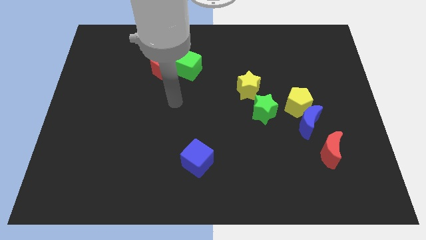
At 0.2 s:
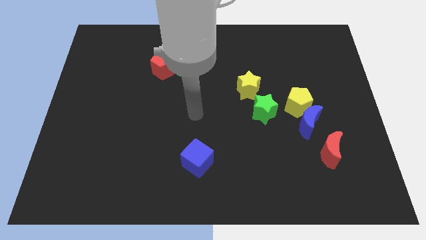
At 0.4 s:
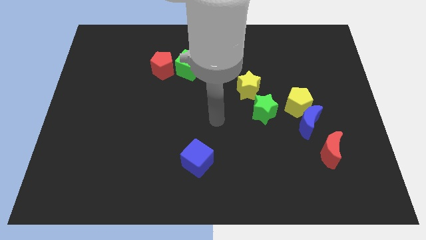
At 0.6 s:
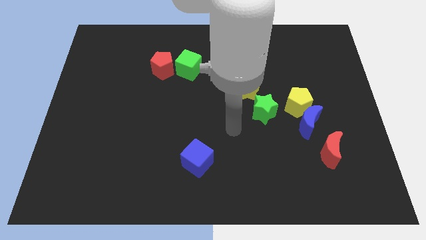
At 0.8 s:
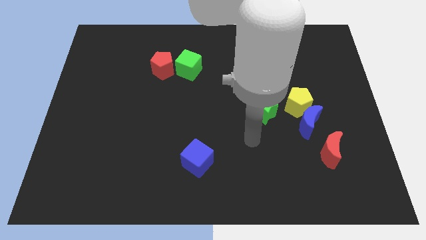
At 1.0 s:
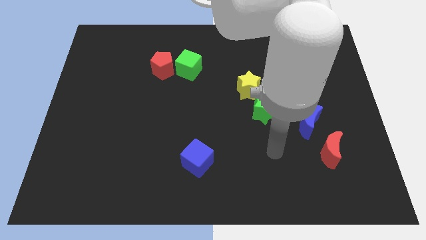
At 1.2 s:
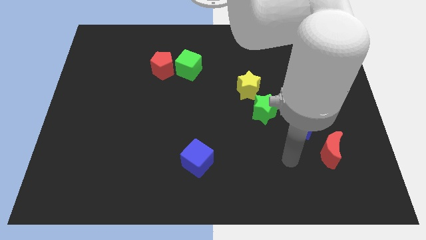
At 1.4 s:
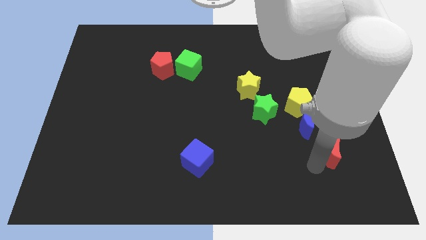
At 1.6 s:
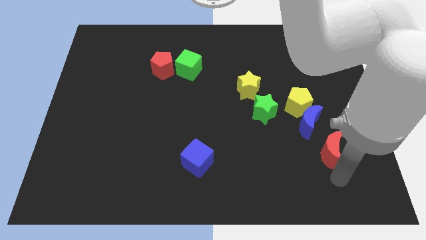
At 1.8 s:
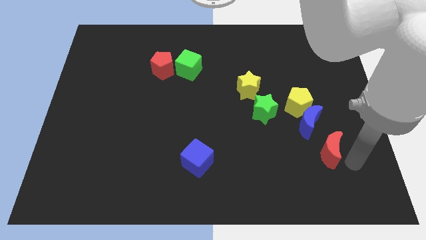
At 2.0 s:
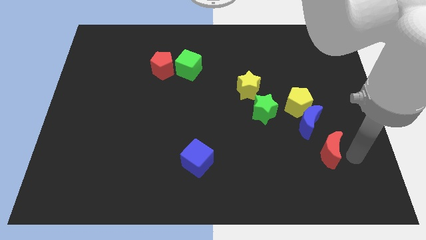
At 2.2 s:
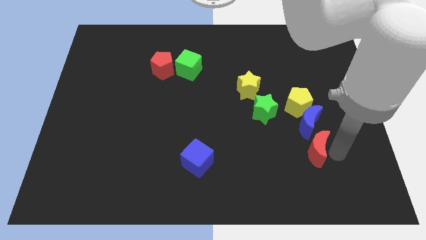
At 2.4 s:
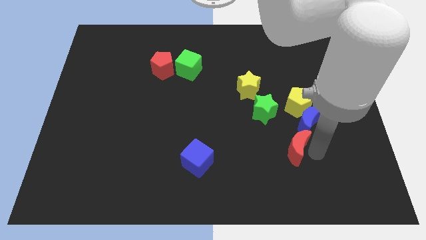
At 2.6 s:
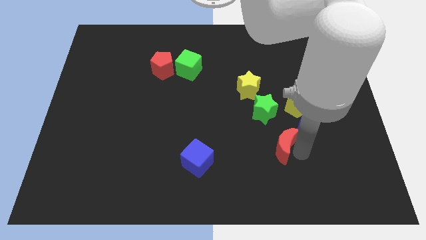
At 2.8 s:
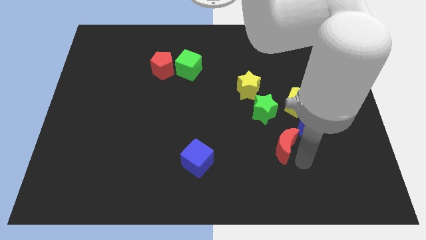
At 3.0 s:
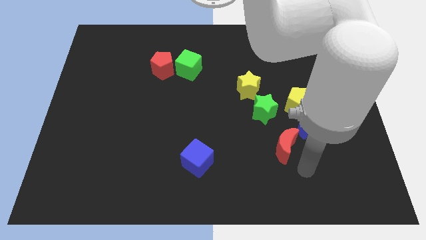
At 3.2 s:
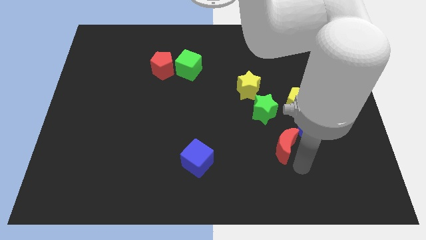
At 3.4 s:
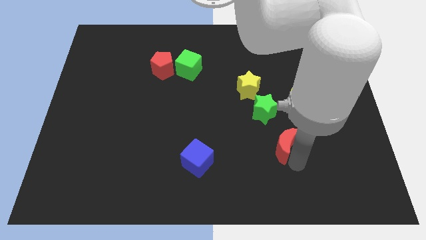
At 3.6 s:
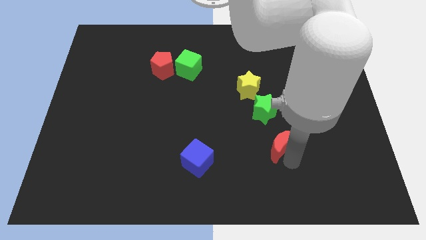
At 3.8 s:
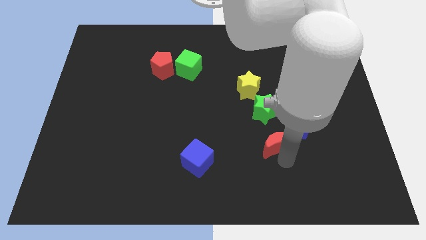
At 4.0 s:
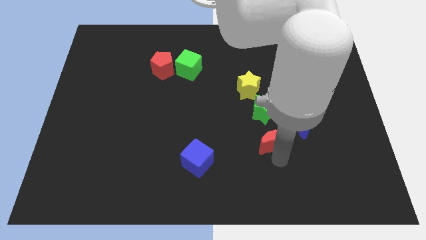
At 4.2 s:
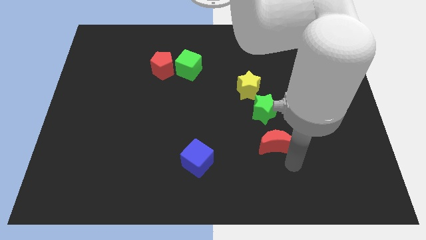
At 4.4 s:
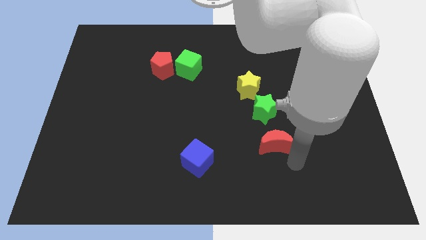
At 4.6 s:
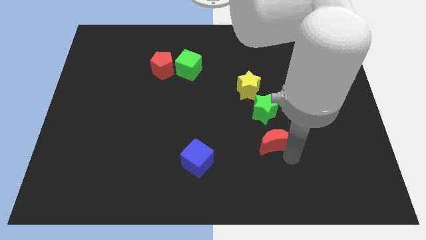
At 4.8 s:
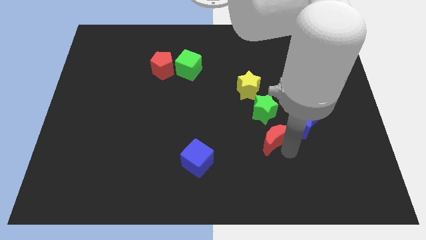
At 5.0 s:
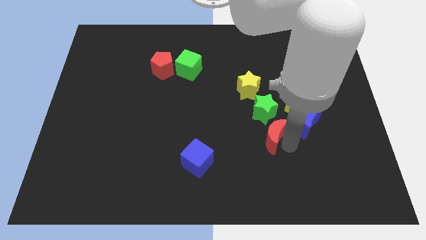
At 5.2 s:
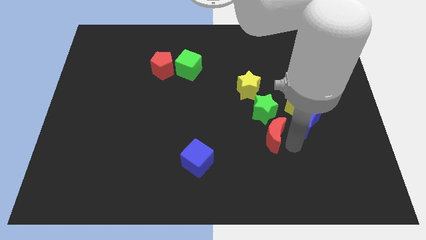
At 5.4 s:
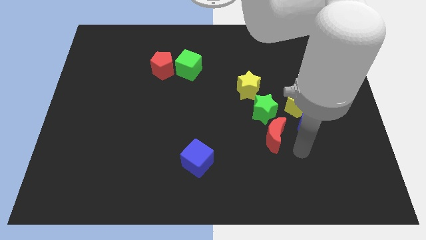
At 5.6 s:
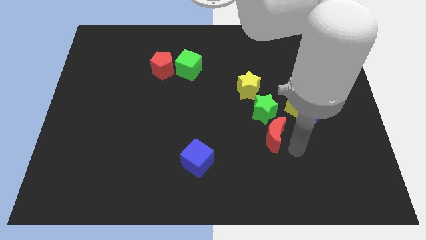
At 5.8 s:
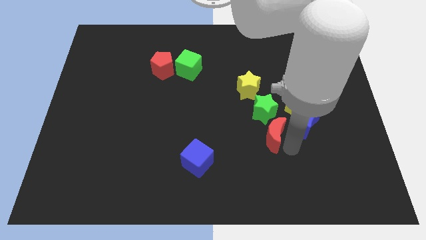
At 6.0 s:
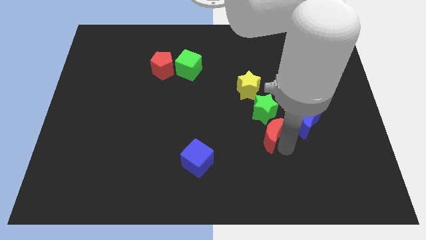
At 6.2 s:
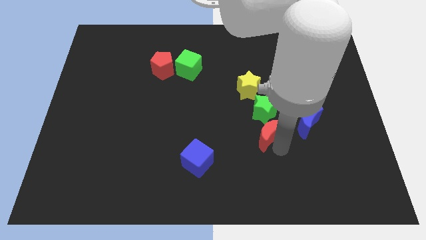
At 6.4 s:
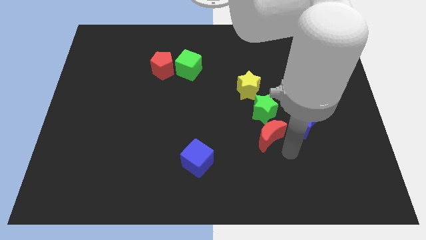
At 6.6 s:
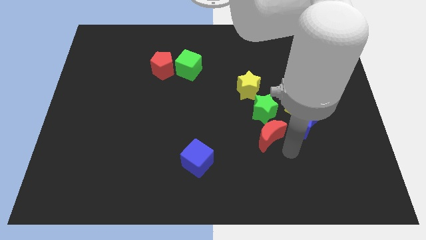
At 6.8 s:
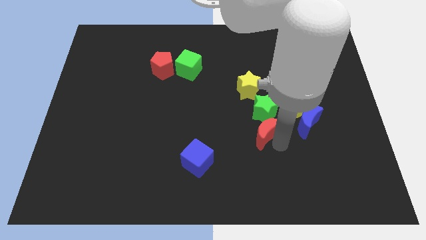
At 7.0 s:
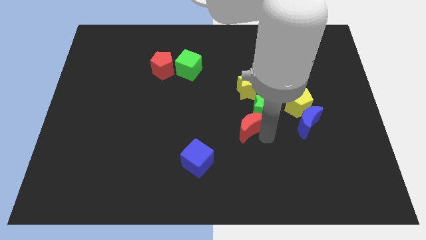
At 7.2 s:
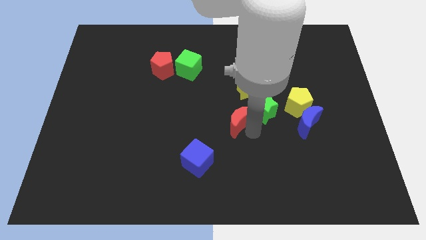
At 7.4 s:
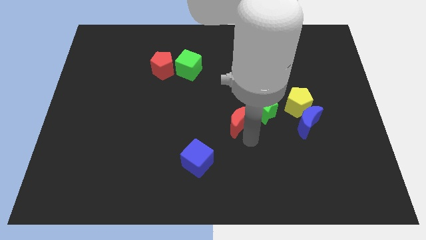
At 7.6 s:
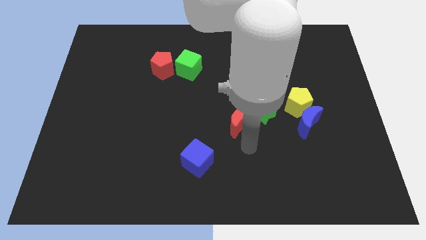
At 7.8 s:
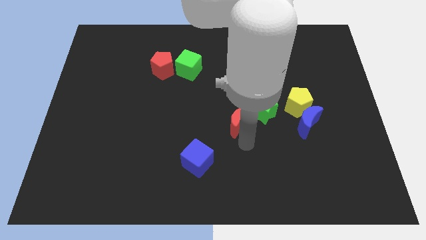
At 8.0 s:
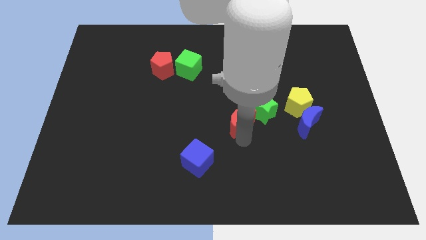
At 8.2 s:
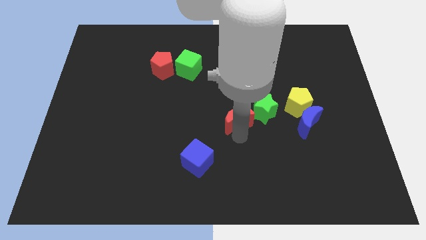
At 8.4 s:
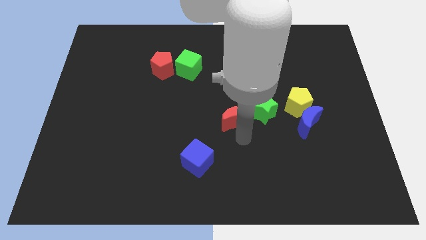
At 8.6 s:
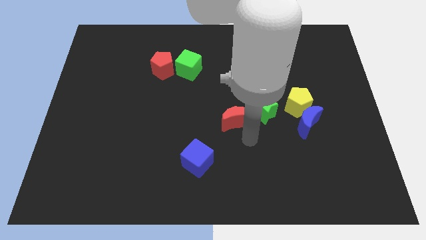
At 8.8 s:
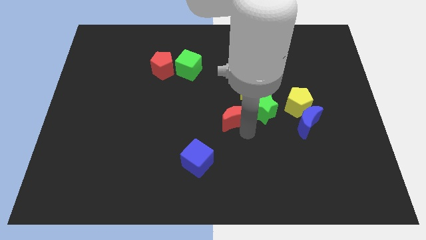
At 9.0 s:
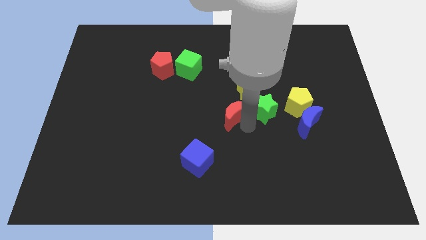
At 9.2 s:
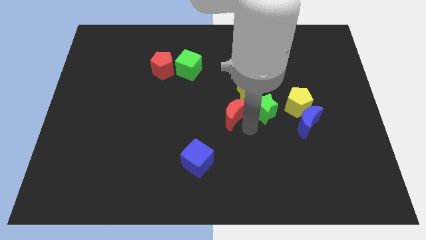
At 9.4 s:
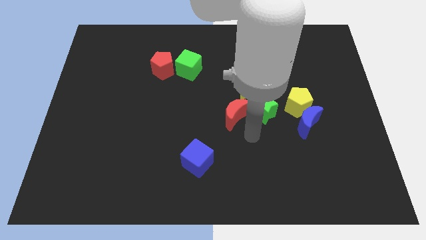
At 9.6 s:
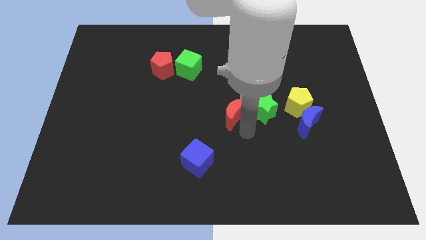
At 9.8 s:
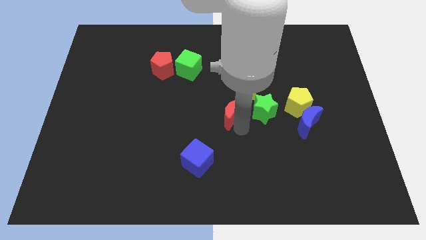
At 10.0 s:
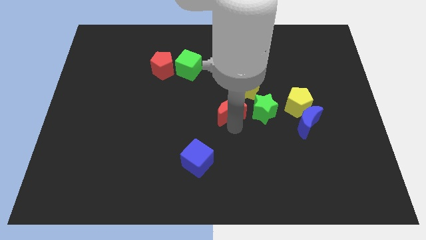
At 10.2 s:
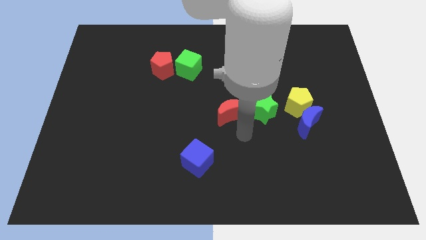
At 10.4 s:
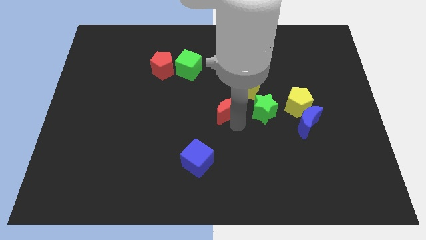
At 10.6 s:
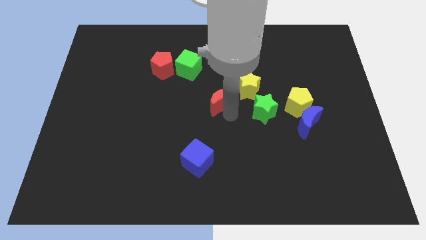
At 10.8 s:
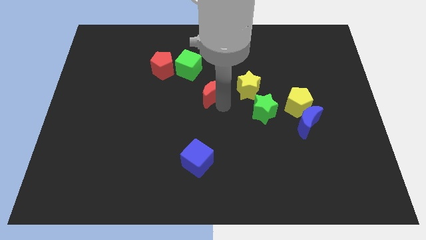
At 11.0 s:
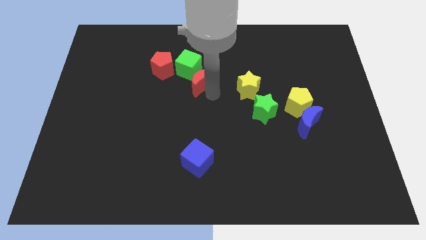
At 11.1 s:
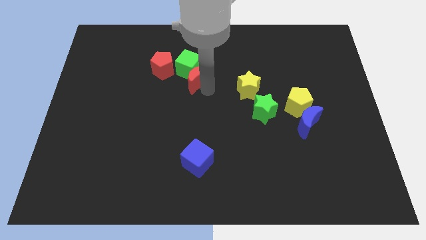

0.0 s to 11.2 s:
put the red moon close to the green cube

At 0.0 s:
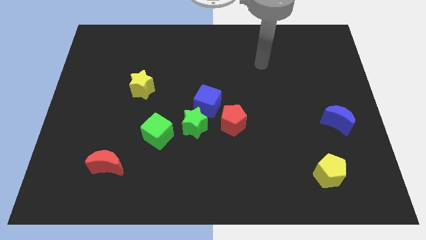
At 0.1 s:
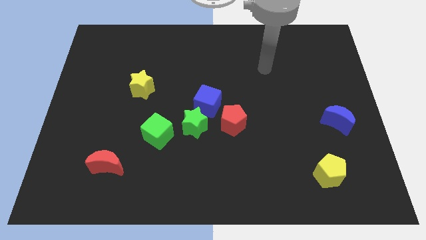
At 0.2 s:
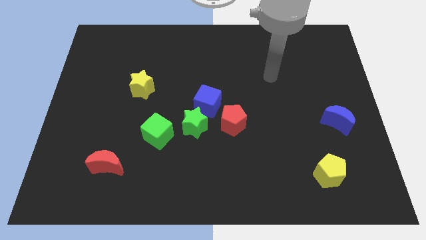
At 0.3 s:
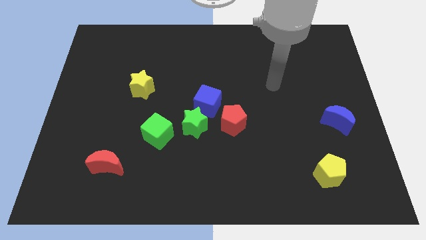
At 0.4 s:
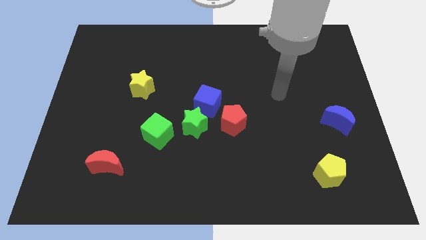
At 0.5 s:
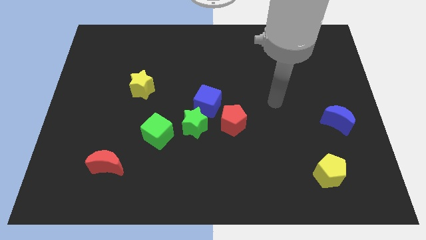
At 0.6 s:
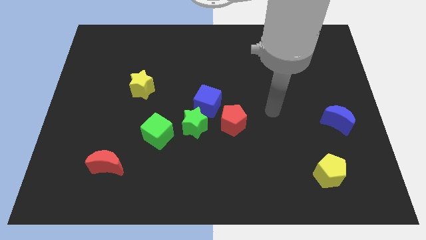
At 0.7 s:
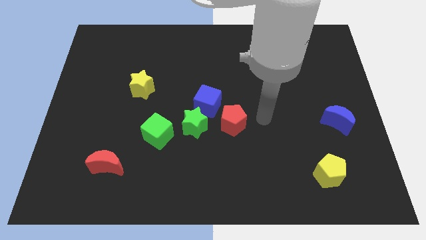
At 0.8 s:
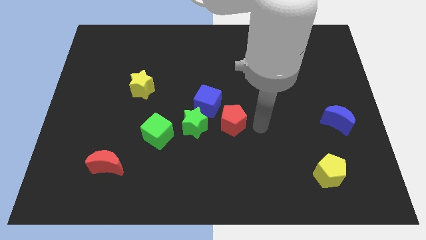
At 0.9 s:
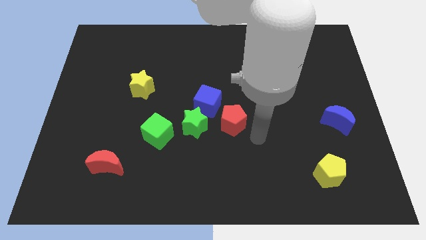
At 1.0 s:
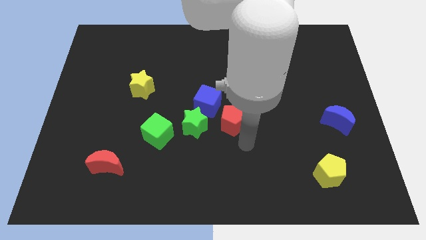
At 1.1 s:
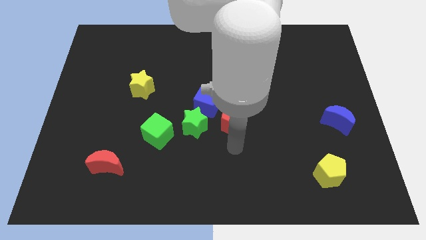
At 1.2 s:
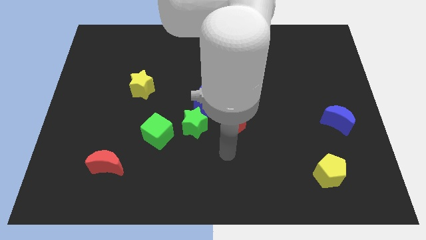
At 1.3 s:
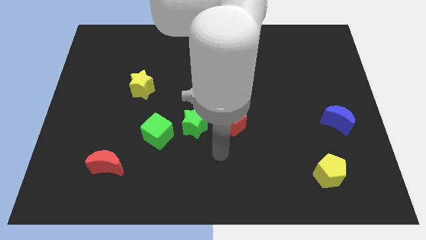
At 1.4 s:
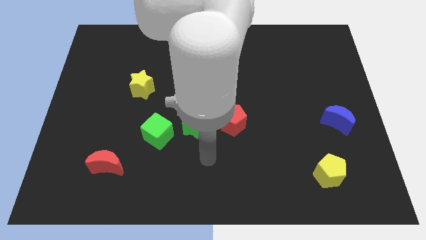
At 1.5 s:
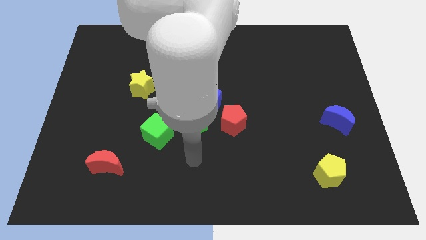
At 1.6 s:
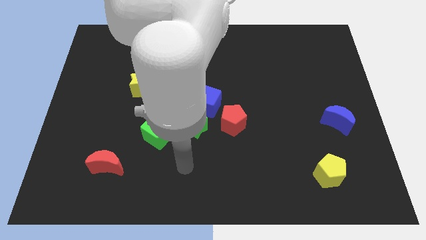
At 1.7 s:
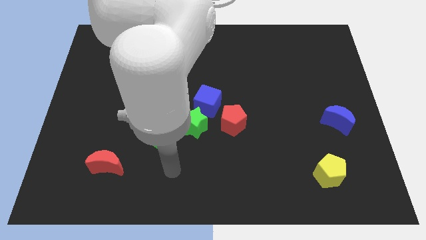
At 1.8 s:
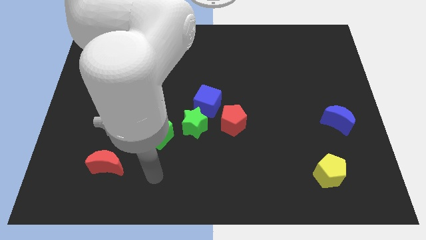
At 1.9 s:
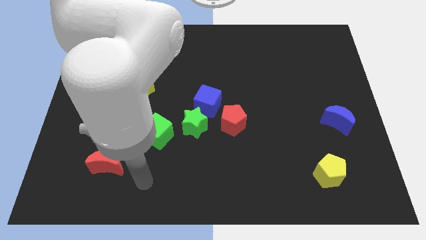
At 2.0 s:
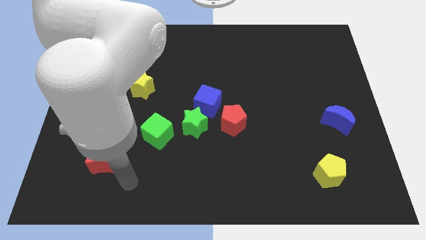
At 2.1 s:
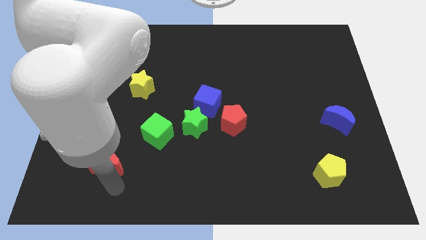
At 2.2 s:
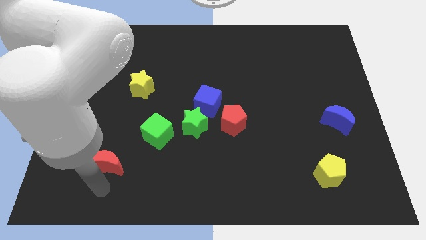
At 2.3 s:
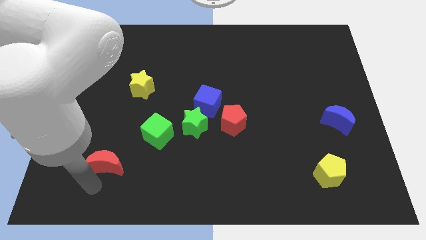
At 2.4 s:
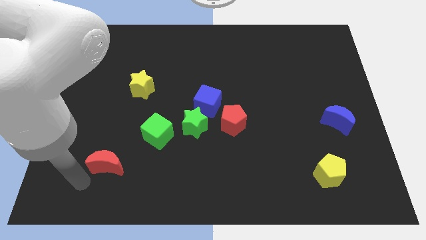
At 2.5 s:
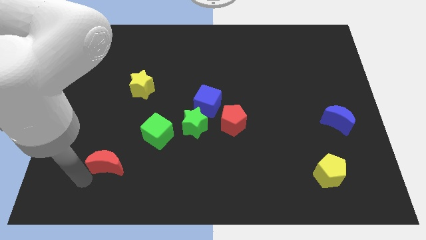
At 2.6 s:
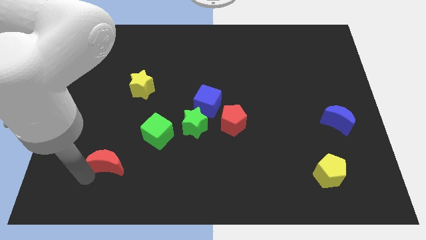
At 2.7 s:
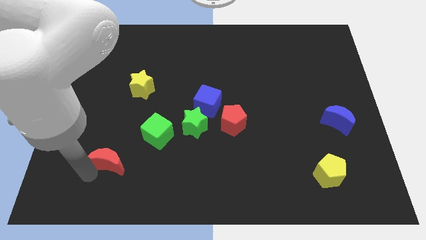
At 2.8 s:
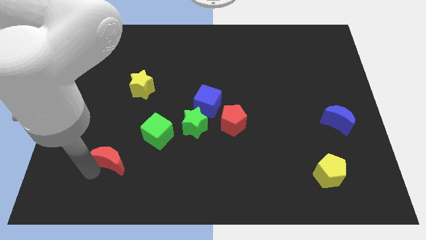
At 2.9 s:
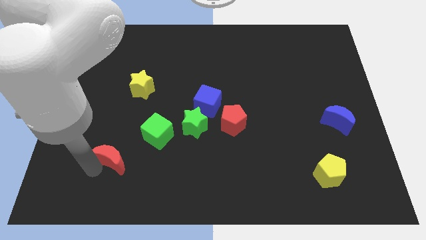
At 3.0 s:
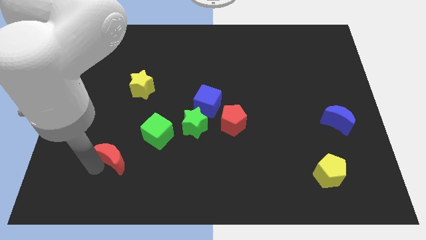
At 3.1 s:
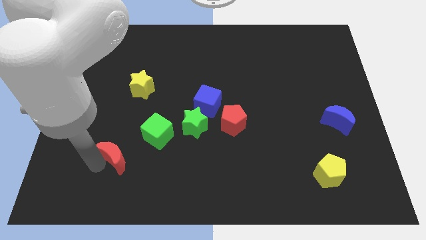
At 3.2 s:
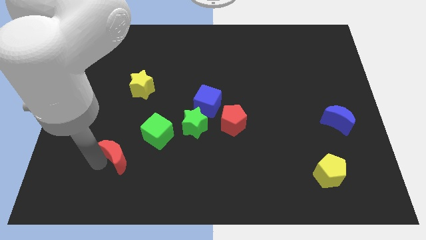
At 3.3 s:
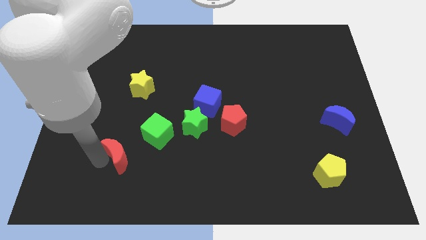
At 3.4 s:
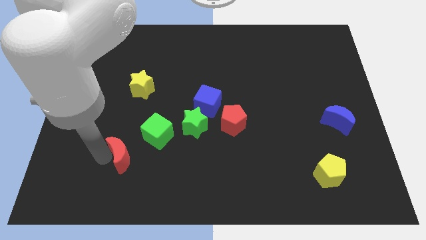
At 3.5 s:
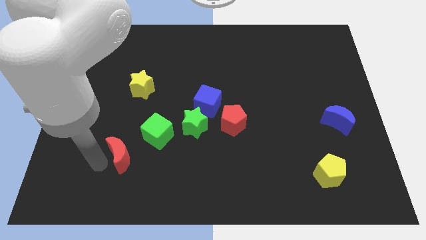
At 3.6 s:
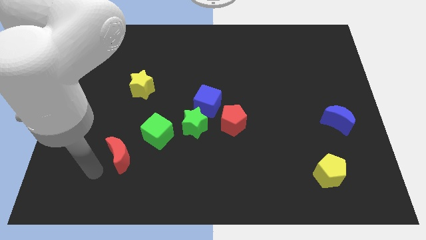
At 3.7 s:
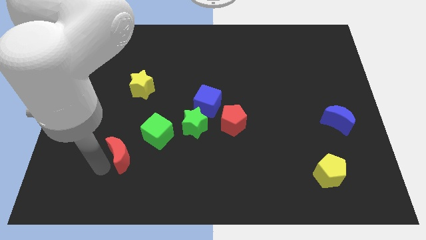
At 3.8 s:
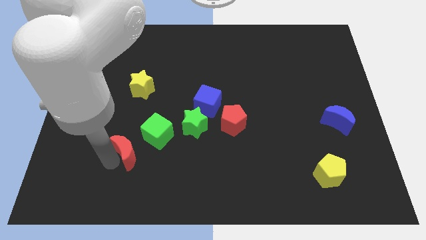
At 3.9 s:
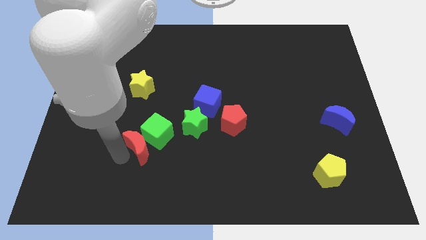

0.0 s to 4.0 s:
slide the red moon to the green cube
